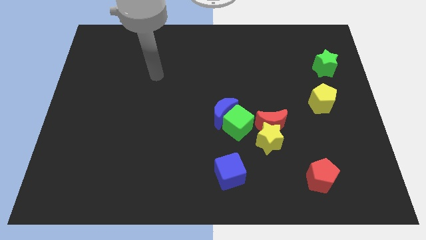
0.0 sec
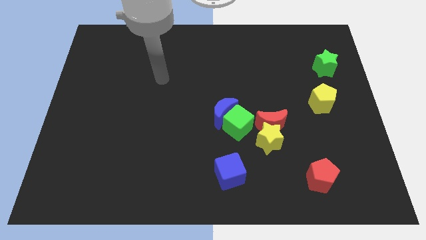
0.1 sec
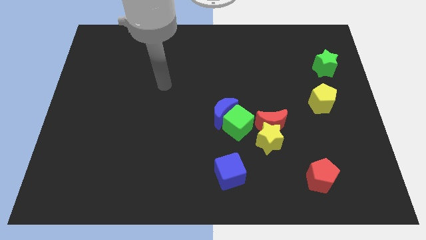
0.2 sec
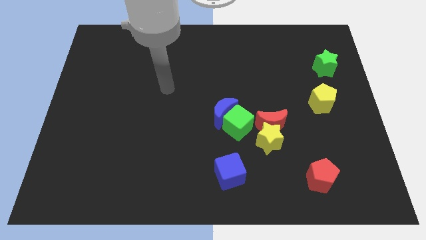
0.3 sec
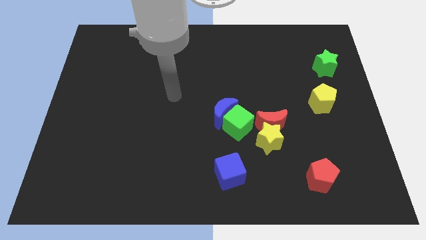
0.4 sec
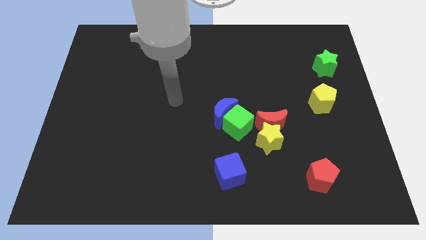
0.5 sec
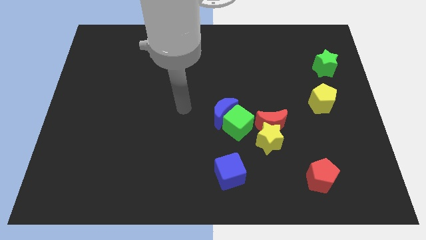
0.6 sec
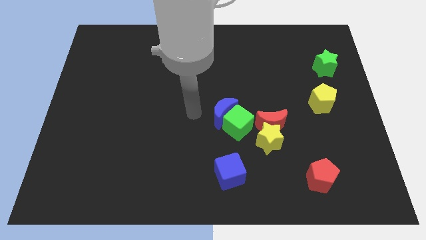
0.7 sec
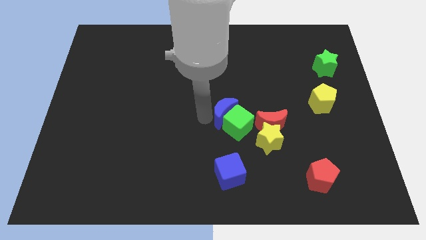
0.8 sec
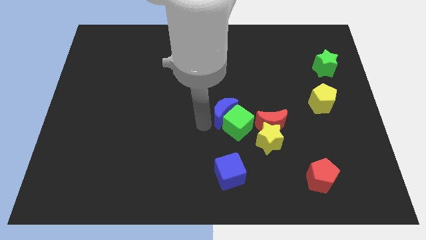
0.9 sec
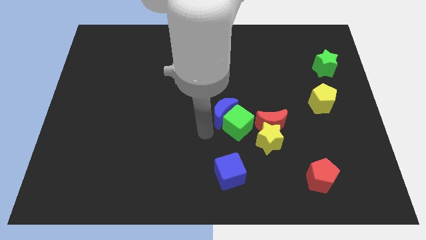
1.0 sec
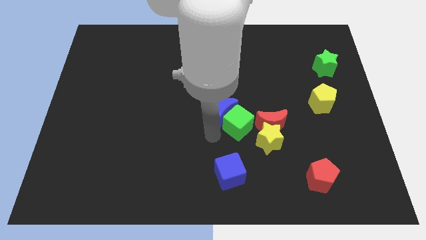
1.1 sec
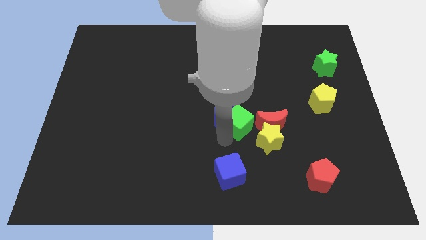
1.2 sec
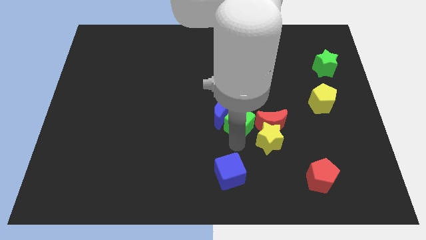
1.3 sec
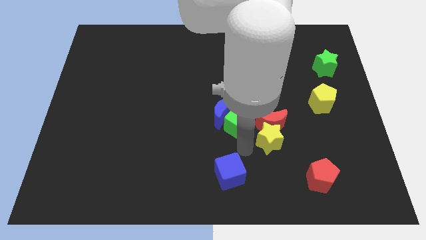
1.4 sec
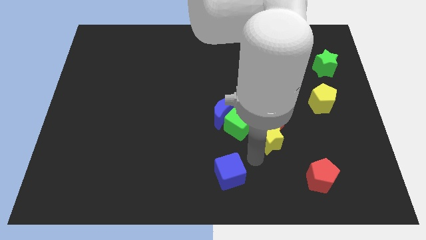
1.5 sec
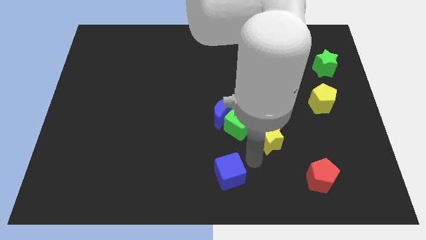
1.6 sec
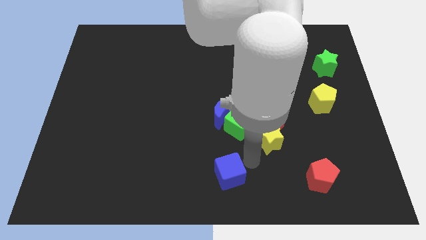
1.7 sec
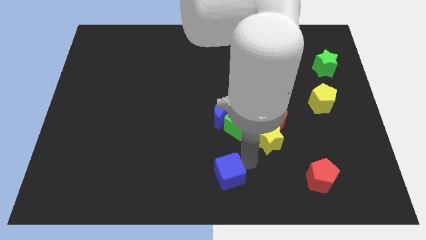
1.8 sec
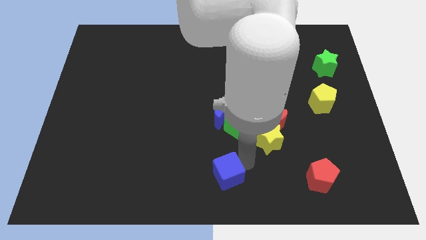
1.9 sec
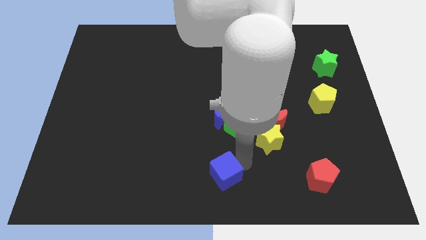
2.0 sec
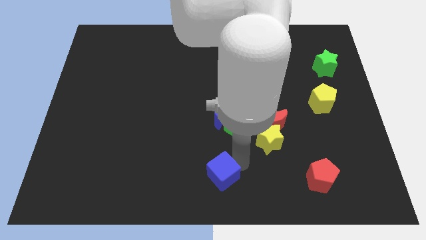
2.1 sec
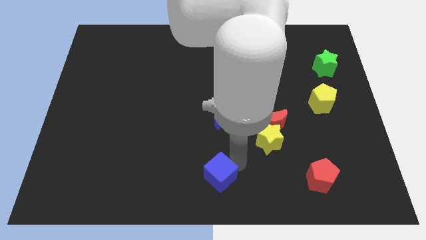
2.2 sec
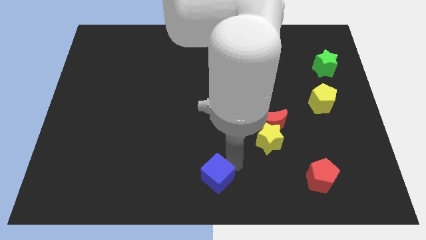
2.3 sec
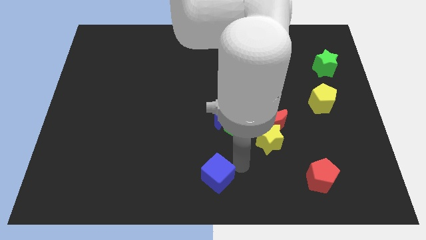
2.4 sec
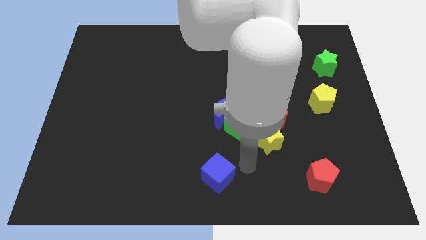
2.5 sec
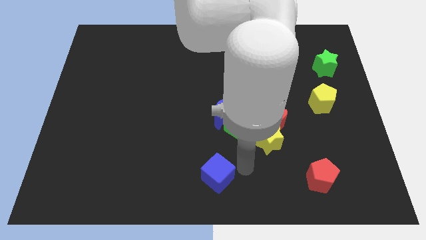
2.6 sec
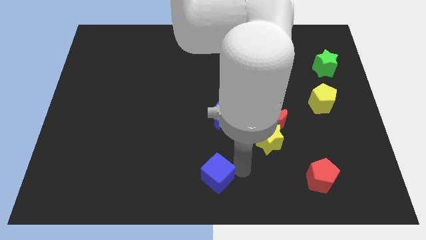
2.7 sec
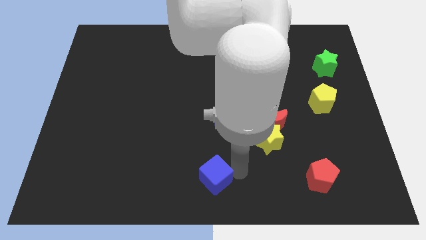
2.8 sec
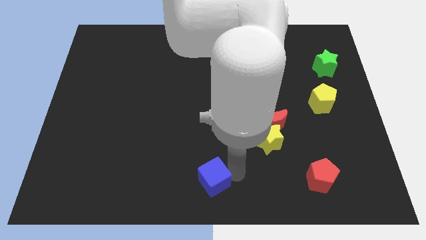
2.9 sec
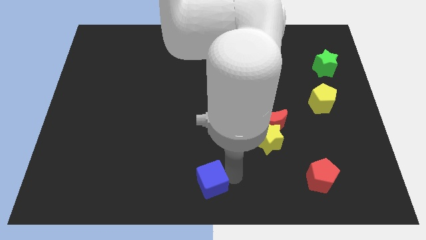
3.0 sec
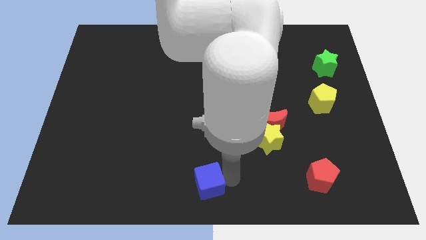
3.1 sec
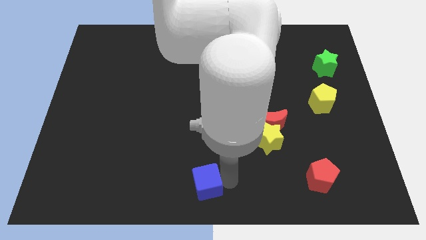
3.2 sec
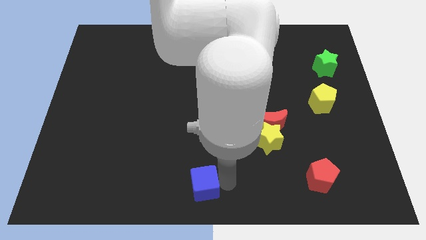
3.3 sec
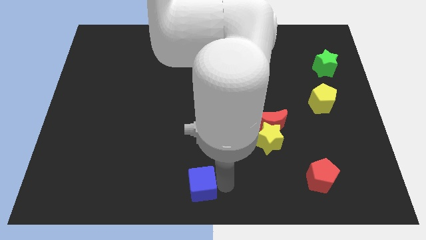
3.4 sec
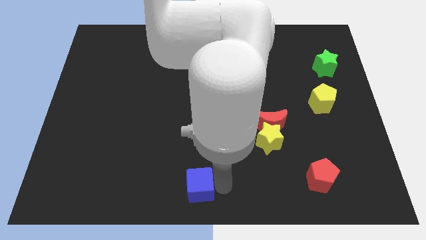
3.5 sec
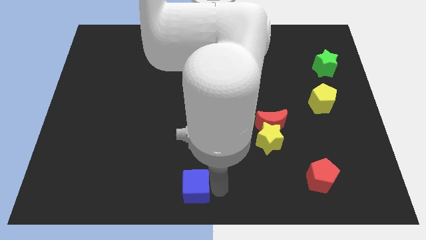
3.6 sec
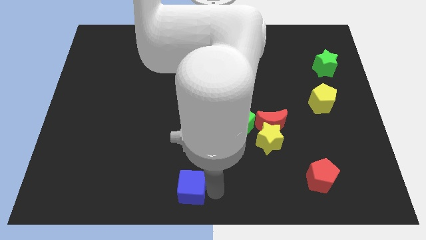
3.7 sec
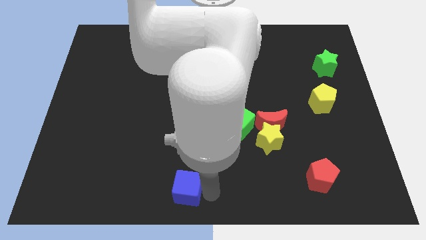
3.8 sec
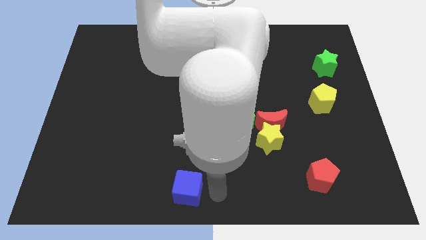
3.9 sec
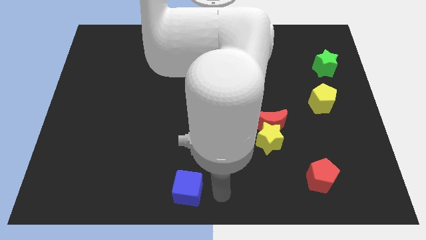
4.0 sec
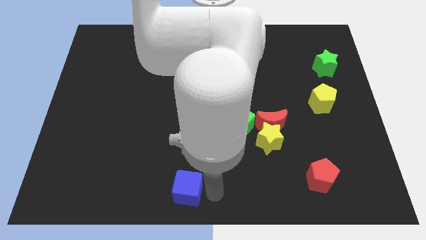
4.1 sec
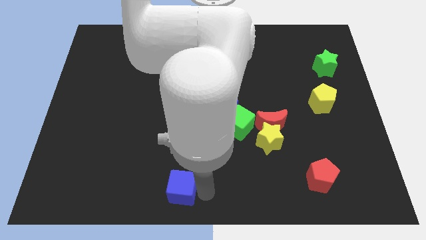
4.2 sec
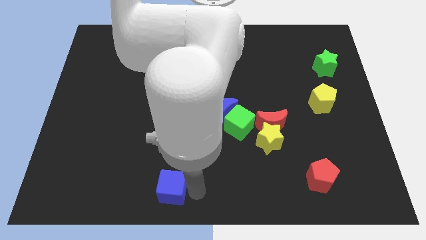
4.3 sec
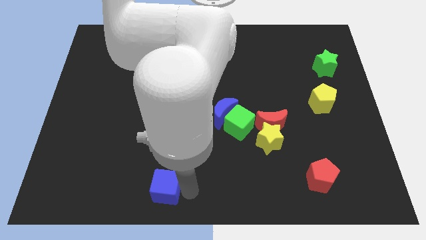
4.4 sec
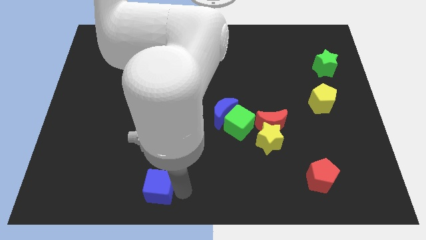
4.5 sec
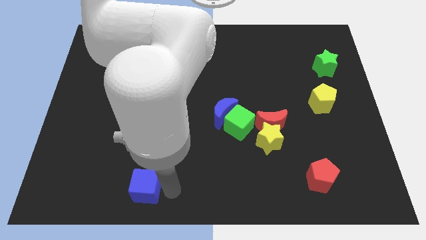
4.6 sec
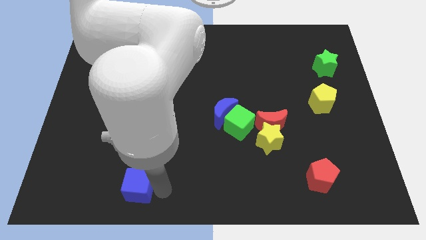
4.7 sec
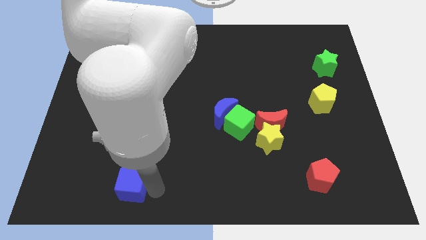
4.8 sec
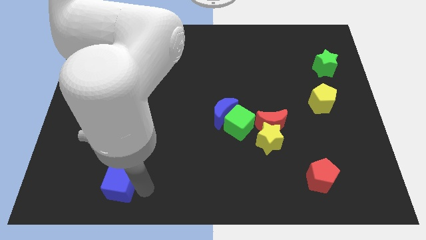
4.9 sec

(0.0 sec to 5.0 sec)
move the blue cube left

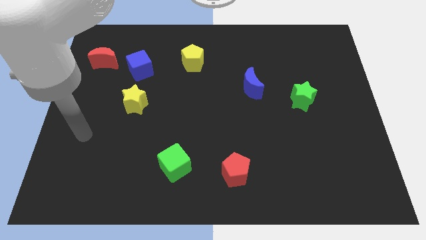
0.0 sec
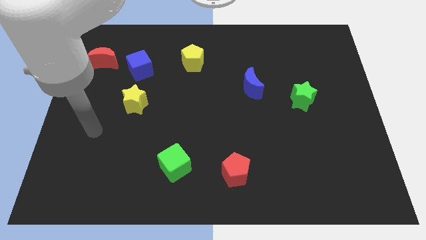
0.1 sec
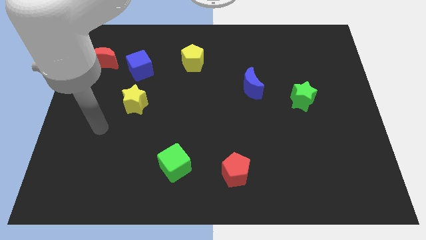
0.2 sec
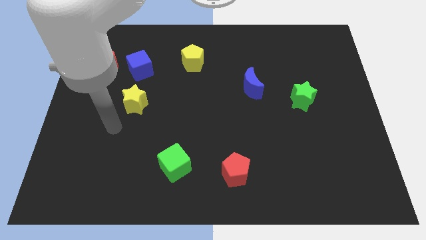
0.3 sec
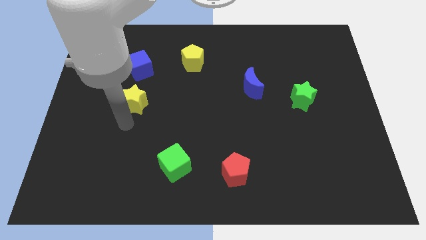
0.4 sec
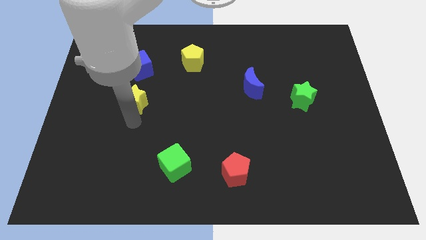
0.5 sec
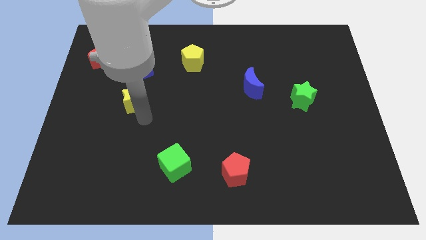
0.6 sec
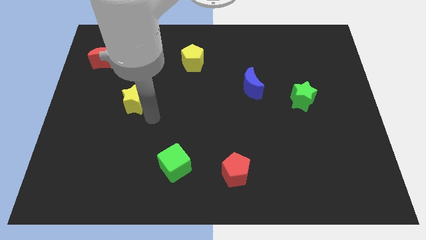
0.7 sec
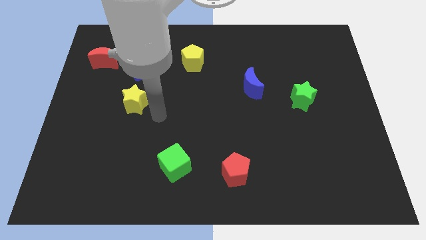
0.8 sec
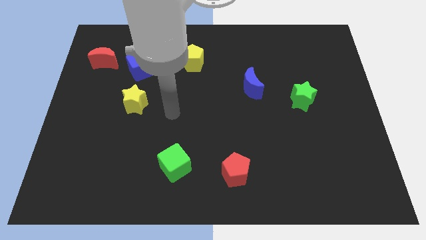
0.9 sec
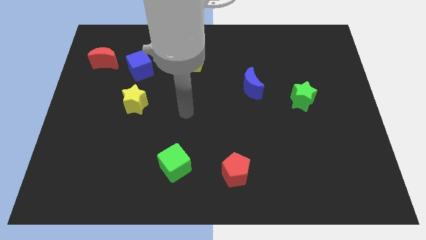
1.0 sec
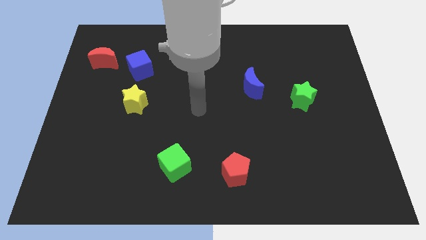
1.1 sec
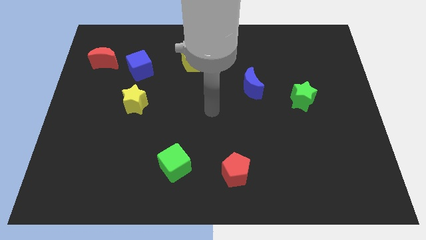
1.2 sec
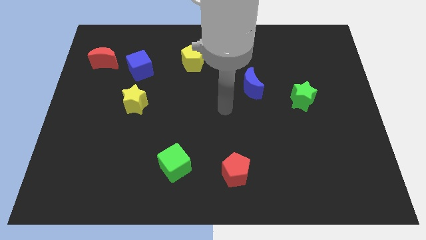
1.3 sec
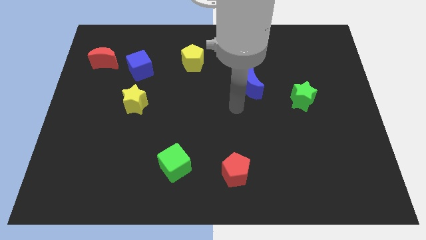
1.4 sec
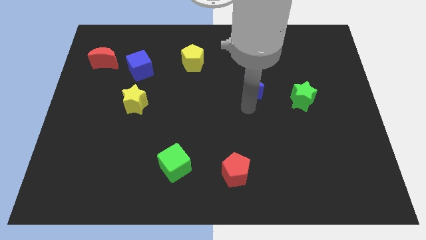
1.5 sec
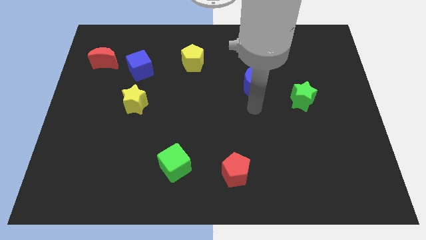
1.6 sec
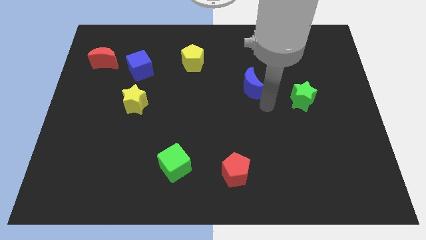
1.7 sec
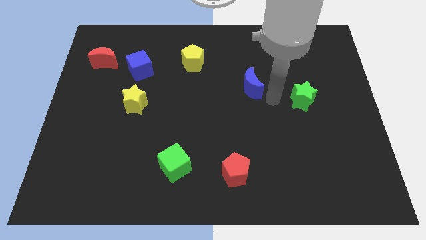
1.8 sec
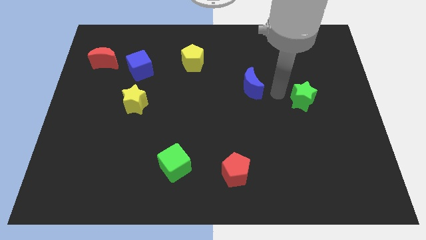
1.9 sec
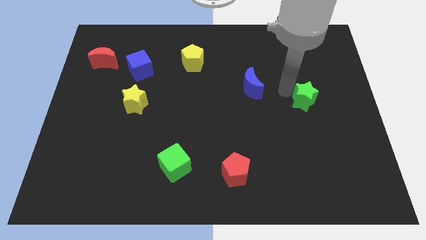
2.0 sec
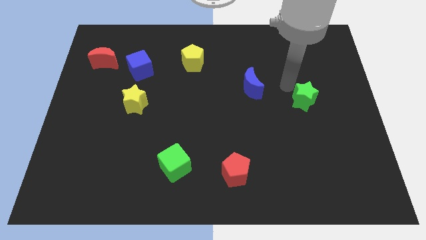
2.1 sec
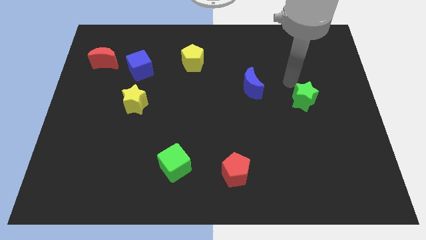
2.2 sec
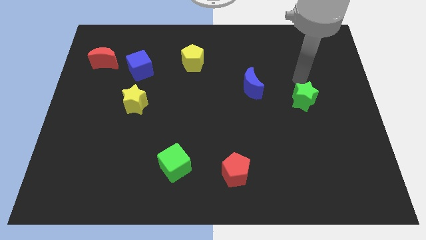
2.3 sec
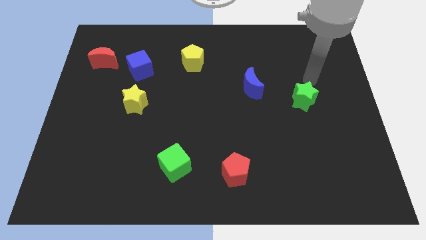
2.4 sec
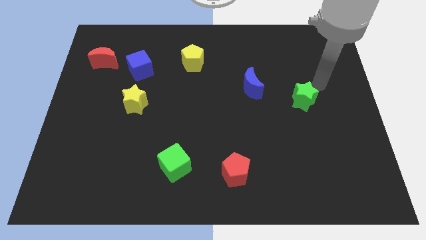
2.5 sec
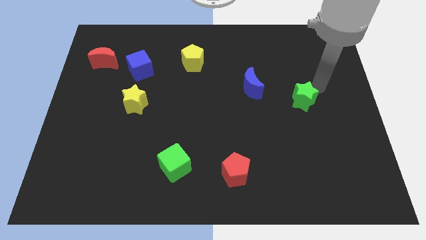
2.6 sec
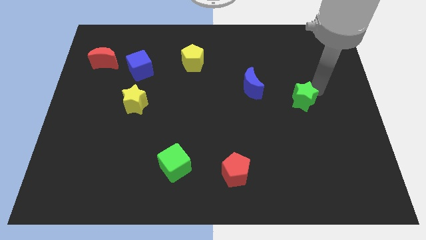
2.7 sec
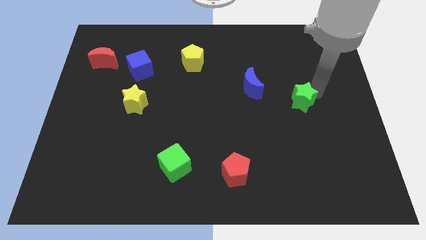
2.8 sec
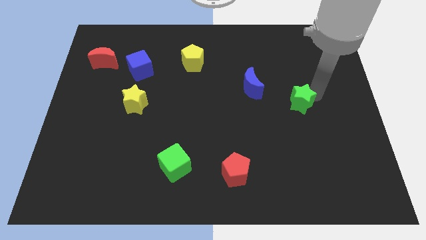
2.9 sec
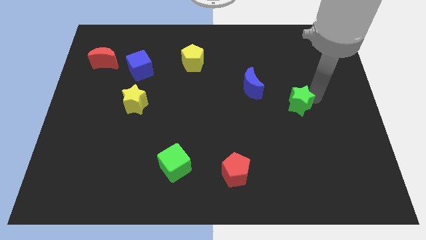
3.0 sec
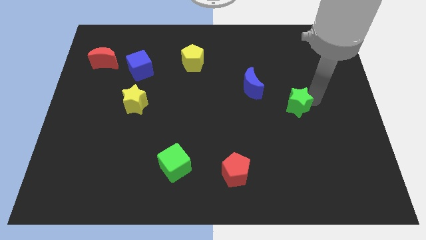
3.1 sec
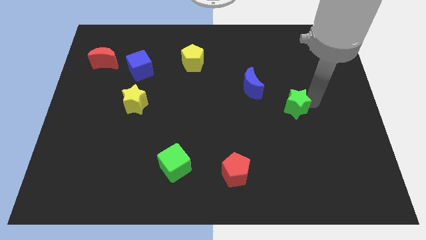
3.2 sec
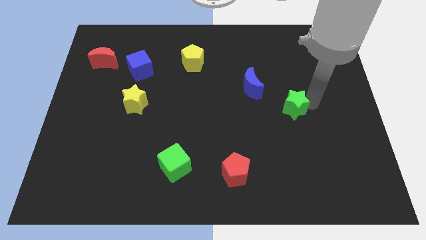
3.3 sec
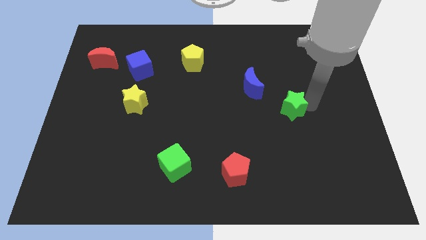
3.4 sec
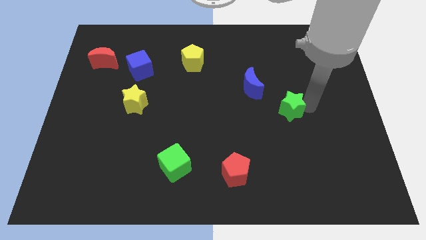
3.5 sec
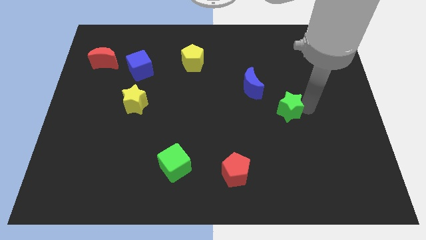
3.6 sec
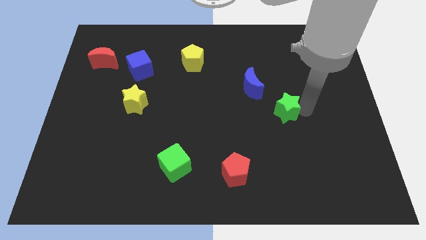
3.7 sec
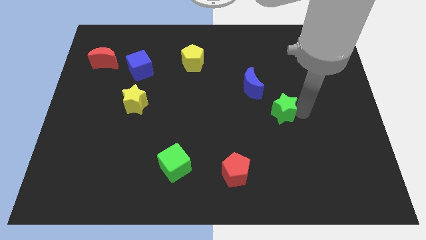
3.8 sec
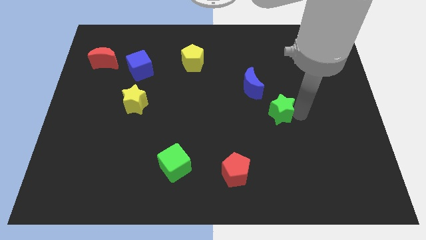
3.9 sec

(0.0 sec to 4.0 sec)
slightly push the green star down and then left
